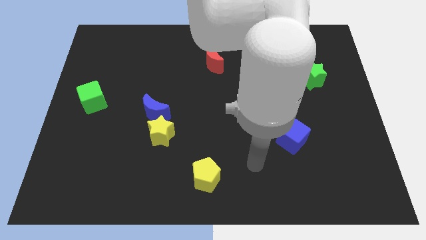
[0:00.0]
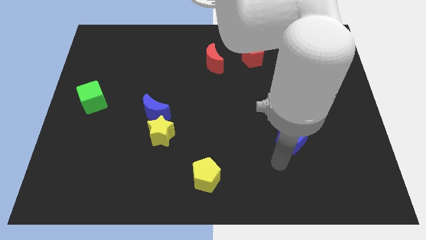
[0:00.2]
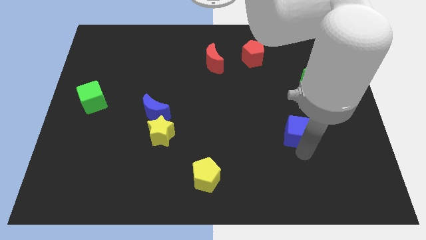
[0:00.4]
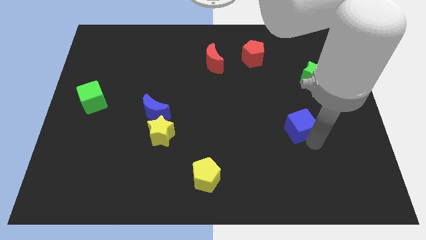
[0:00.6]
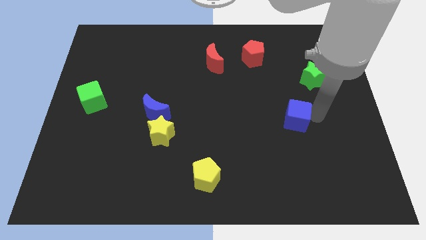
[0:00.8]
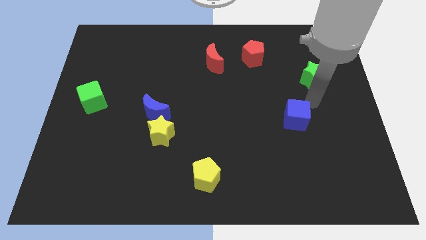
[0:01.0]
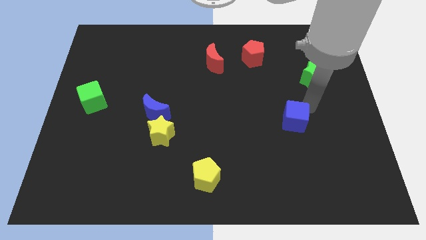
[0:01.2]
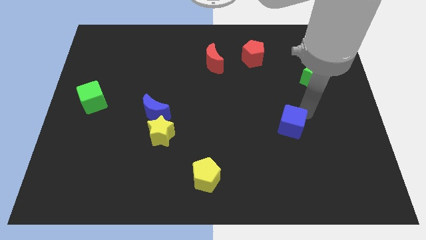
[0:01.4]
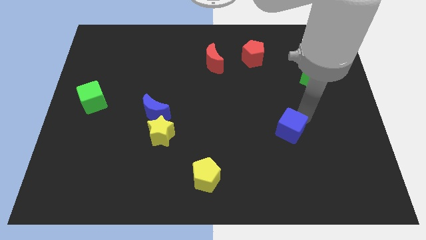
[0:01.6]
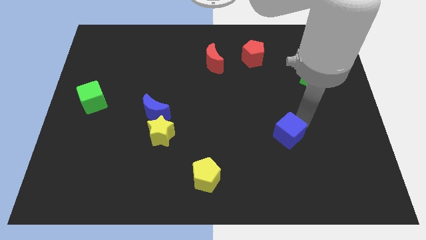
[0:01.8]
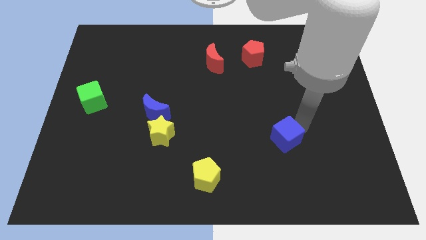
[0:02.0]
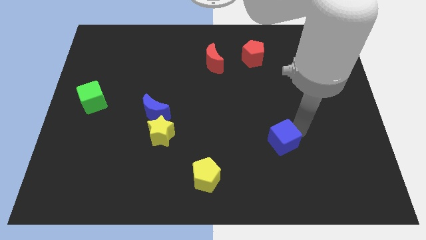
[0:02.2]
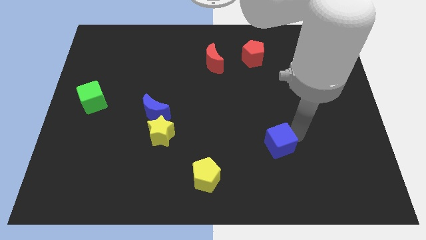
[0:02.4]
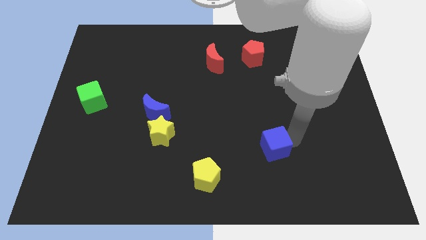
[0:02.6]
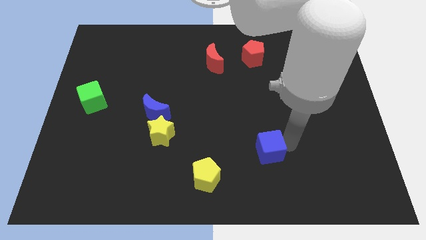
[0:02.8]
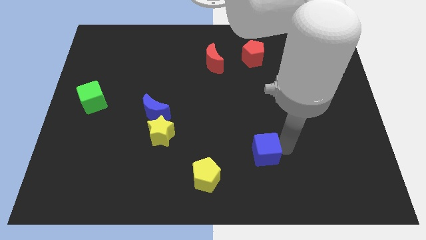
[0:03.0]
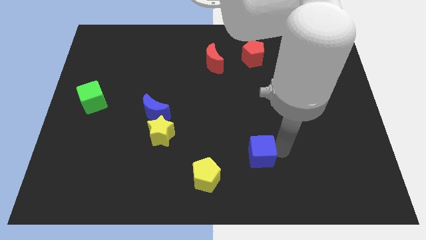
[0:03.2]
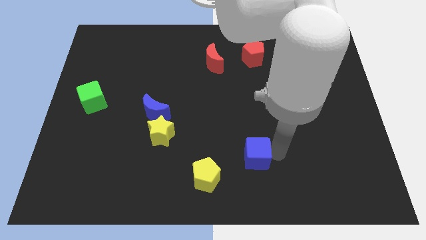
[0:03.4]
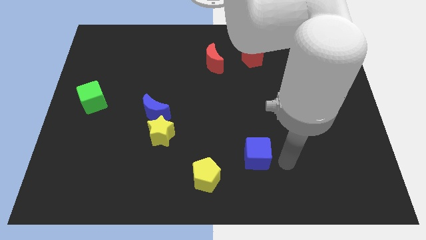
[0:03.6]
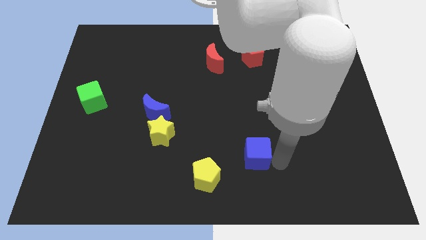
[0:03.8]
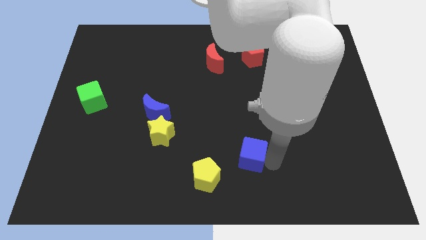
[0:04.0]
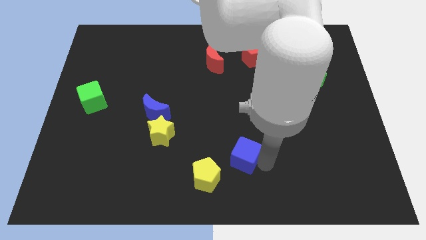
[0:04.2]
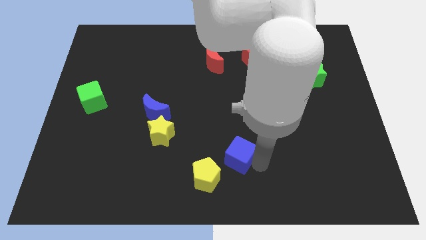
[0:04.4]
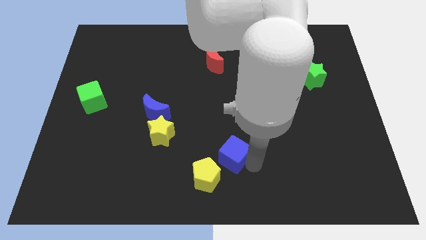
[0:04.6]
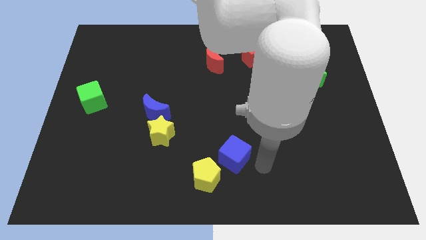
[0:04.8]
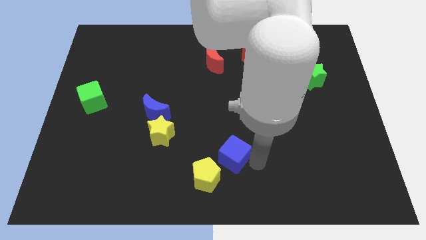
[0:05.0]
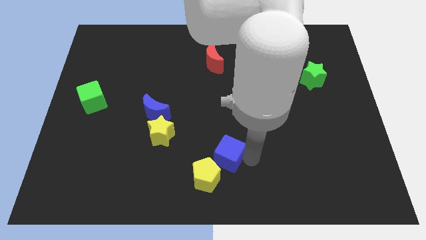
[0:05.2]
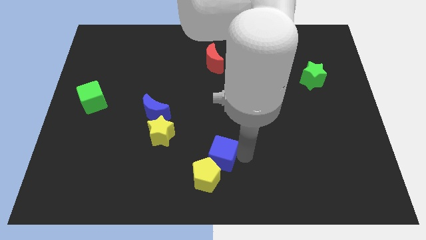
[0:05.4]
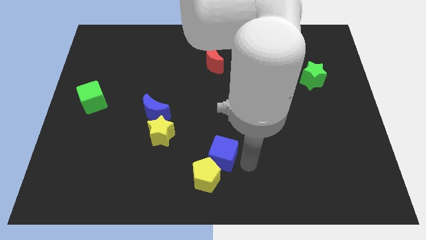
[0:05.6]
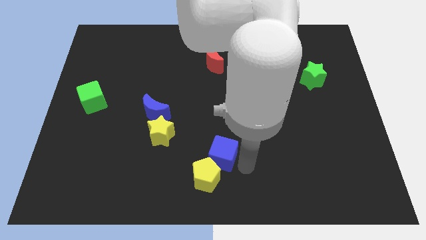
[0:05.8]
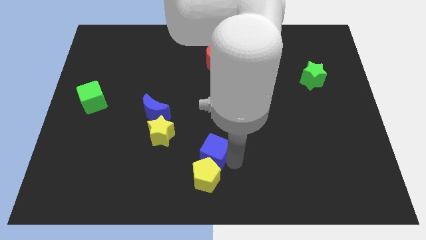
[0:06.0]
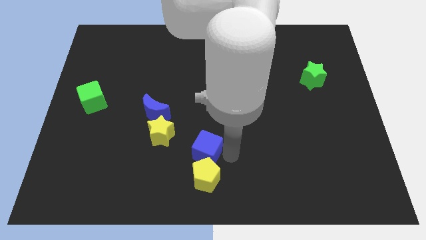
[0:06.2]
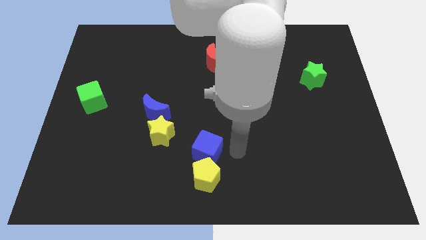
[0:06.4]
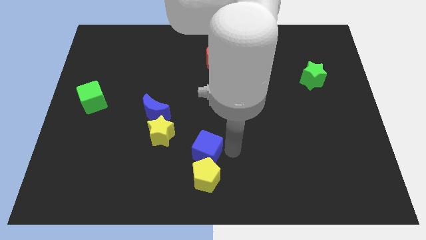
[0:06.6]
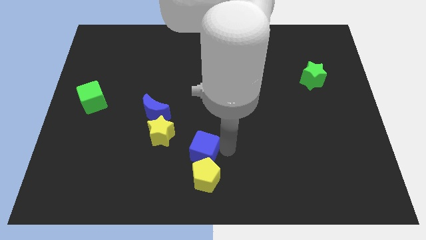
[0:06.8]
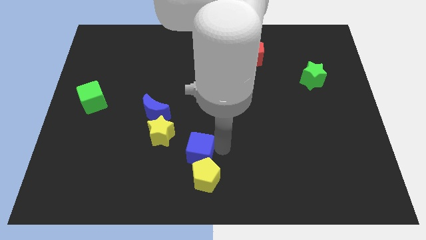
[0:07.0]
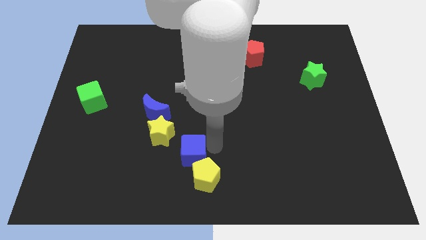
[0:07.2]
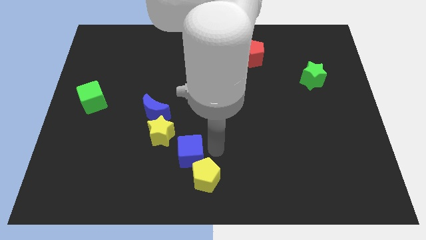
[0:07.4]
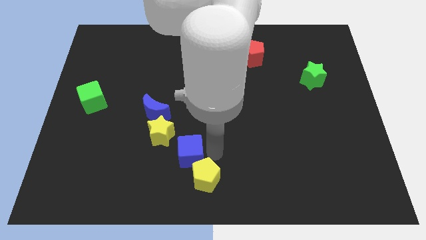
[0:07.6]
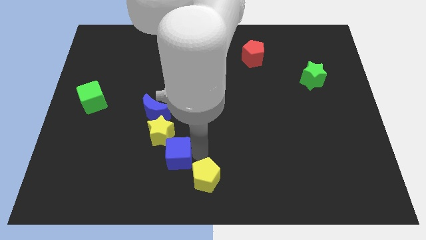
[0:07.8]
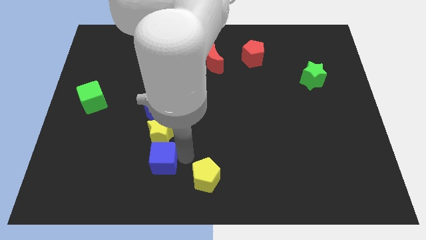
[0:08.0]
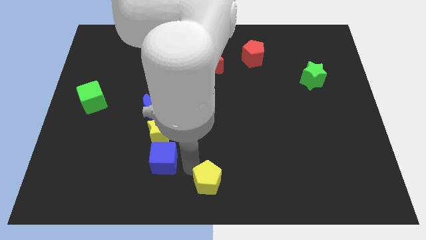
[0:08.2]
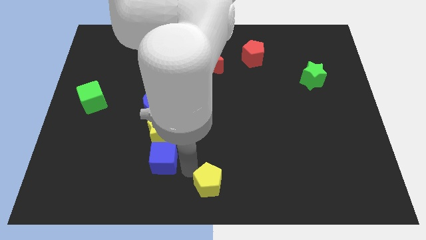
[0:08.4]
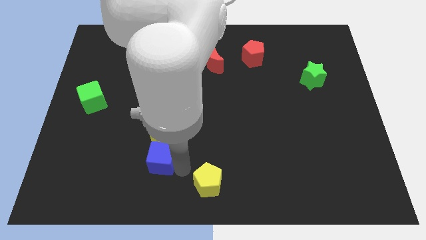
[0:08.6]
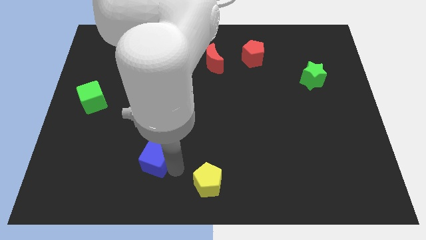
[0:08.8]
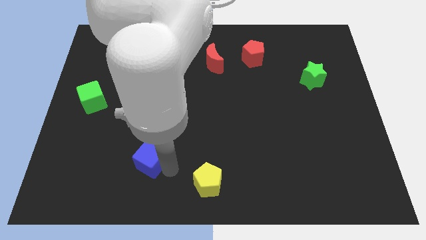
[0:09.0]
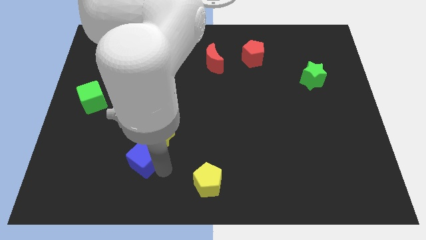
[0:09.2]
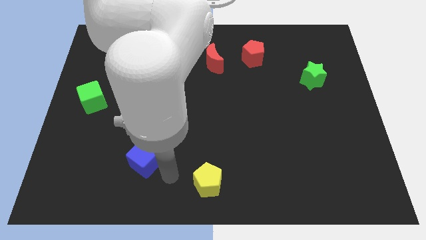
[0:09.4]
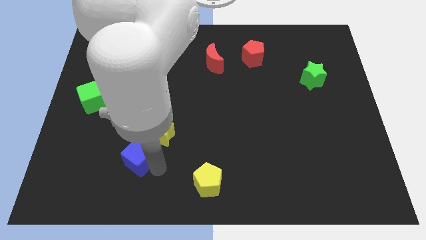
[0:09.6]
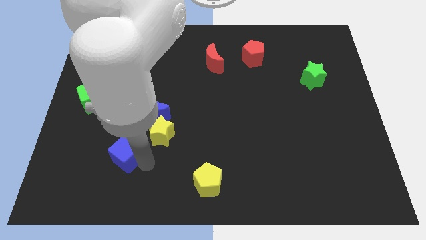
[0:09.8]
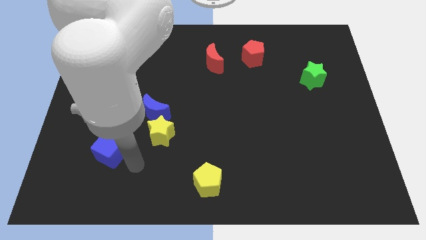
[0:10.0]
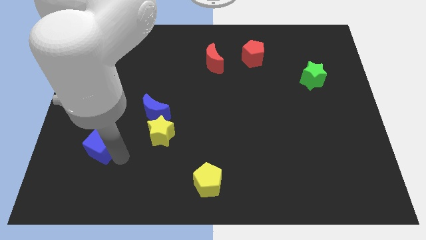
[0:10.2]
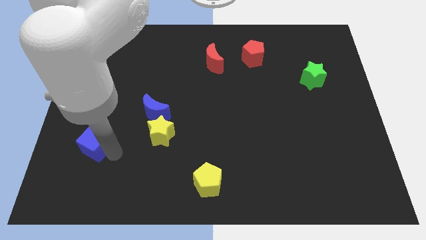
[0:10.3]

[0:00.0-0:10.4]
move the blue cube to the bottom of the green cube
